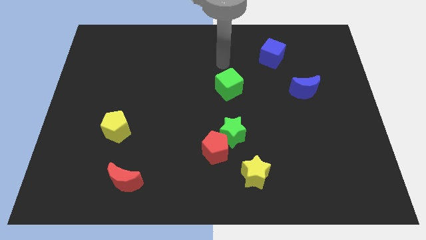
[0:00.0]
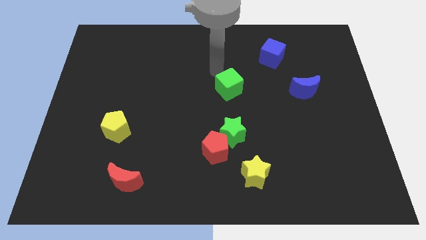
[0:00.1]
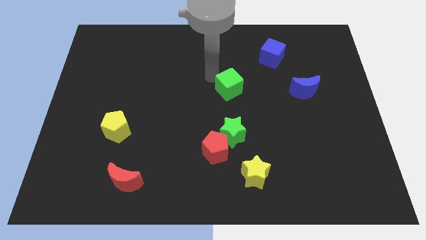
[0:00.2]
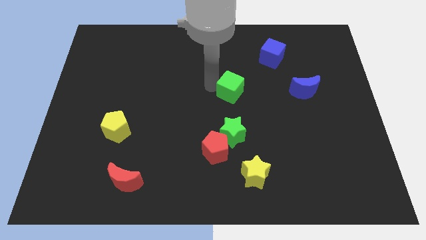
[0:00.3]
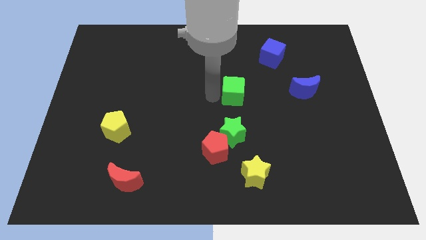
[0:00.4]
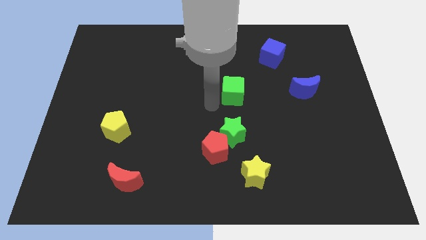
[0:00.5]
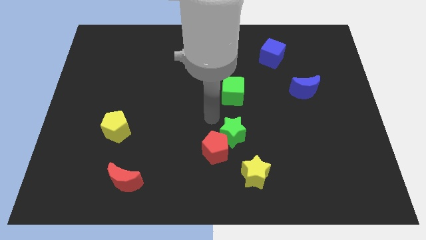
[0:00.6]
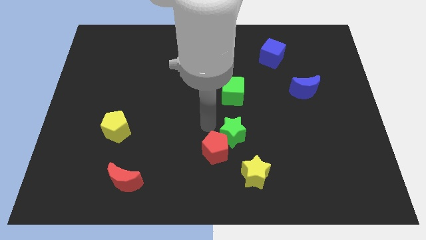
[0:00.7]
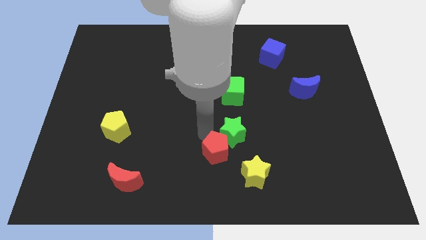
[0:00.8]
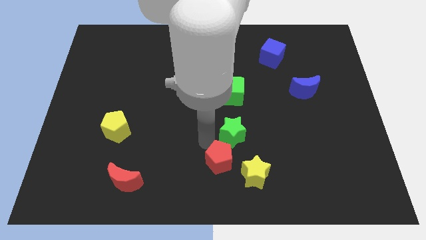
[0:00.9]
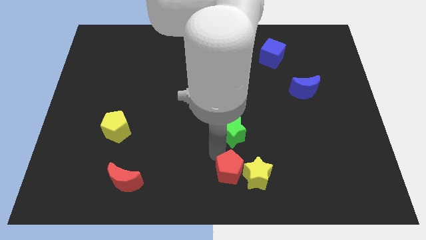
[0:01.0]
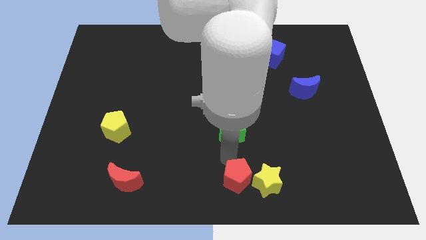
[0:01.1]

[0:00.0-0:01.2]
move the green star away from the red pentagon

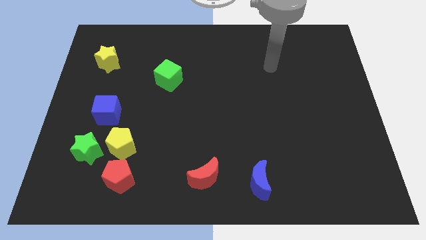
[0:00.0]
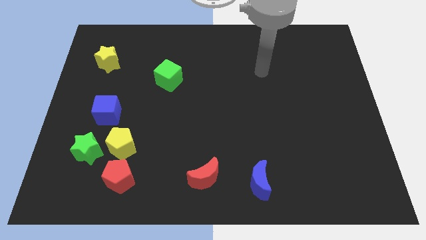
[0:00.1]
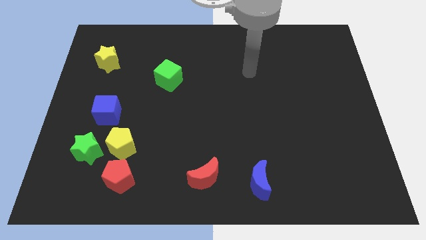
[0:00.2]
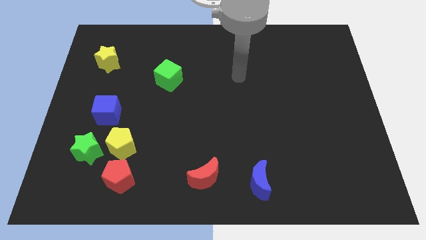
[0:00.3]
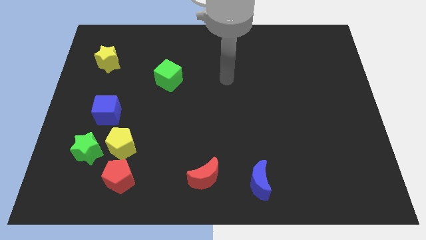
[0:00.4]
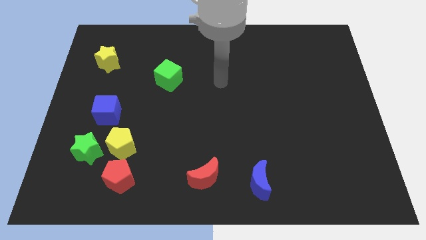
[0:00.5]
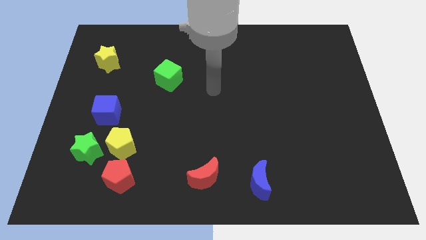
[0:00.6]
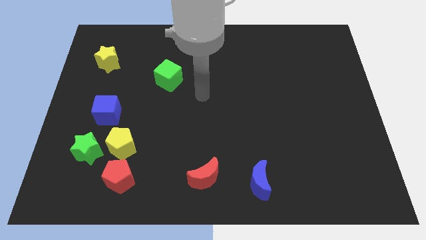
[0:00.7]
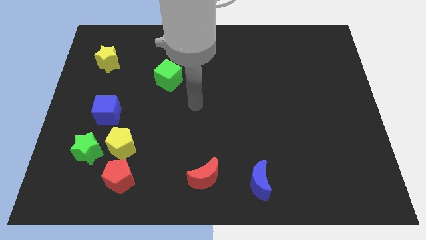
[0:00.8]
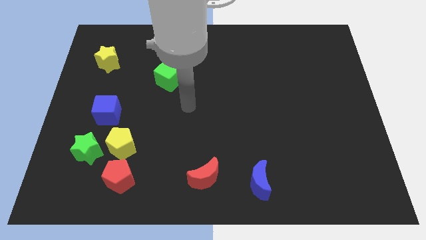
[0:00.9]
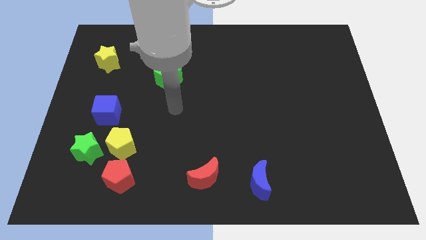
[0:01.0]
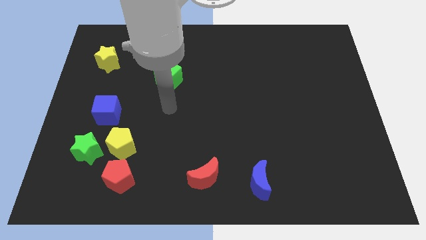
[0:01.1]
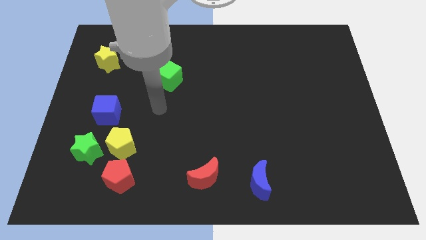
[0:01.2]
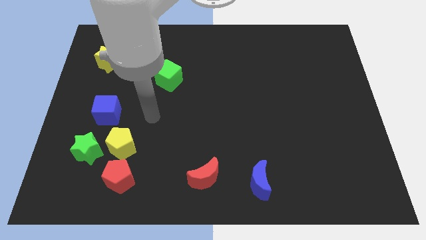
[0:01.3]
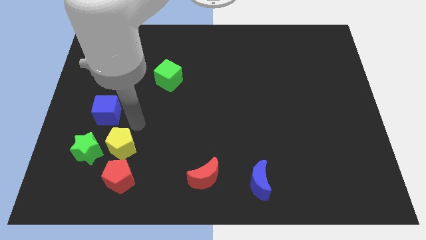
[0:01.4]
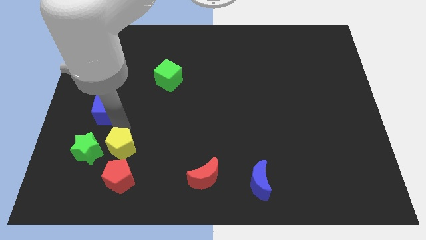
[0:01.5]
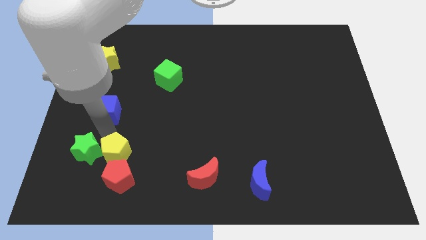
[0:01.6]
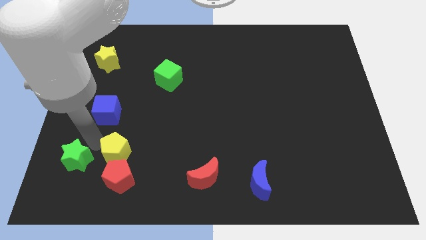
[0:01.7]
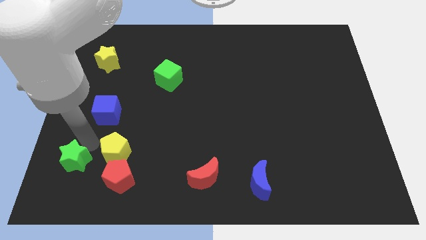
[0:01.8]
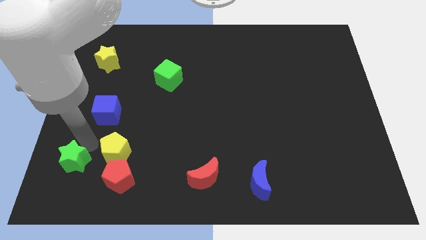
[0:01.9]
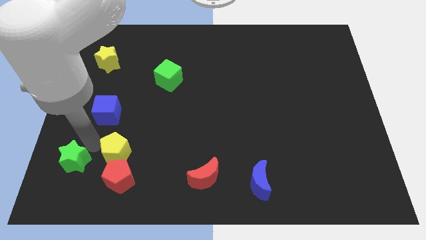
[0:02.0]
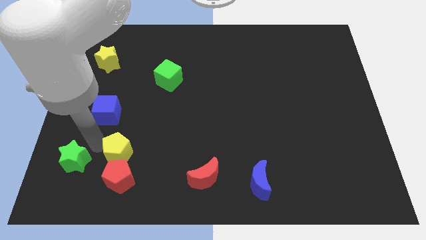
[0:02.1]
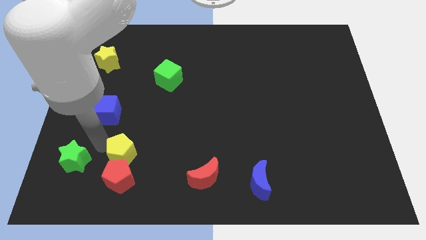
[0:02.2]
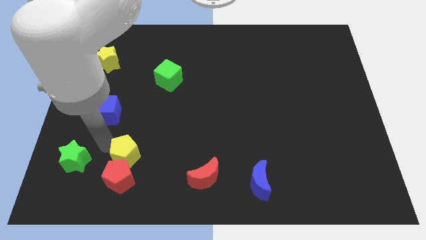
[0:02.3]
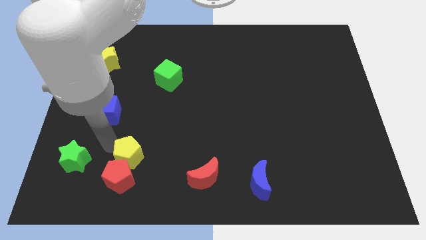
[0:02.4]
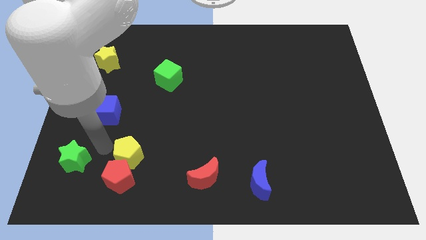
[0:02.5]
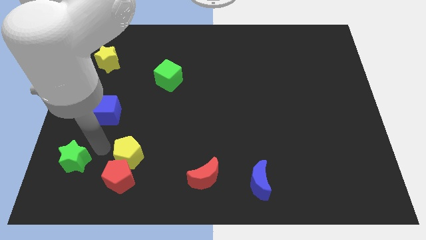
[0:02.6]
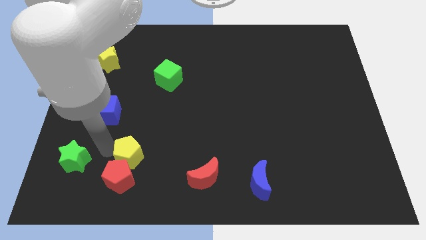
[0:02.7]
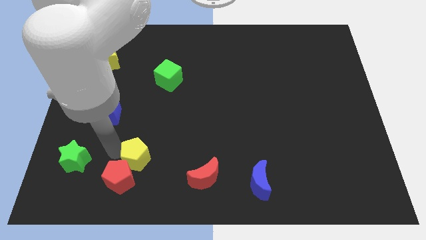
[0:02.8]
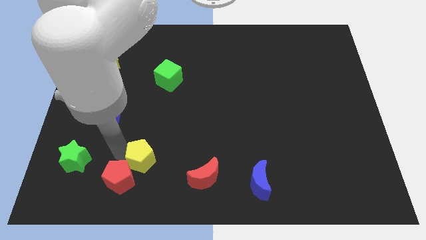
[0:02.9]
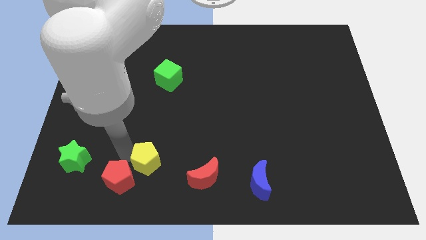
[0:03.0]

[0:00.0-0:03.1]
pull the yellow pentagon apart from the green star, red pentagon, and blue cube

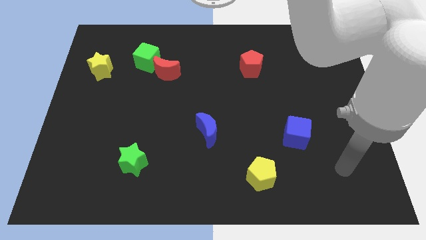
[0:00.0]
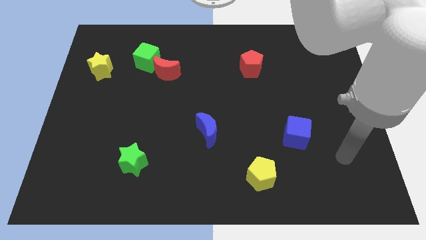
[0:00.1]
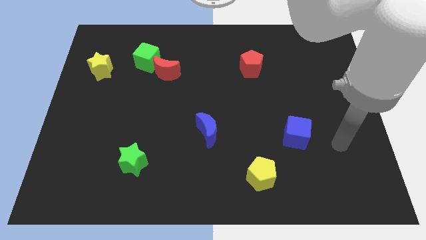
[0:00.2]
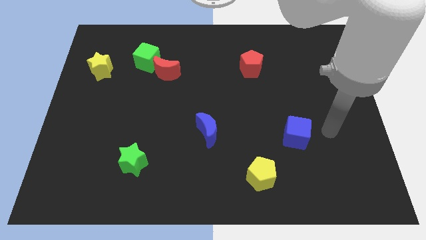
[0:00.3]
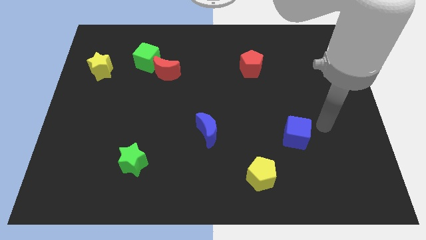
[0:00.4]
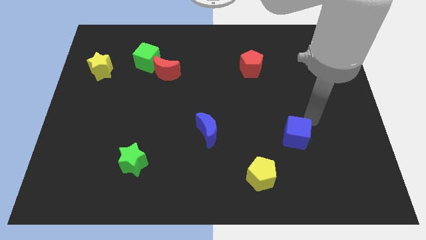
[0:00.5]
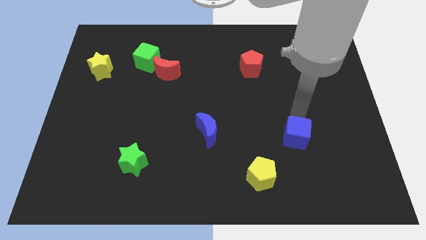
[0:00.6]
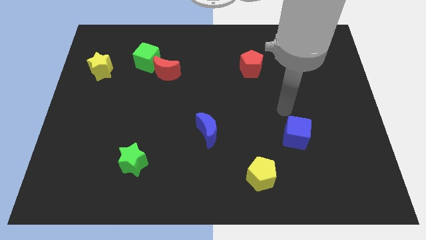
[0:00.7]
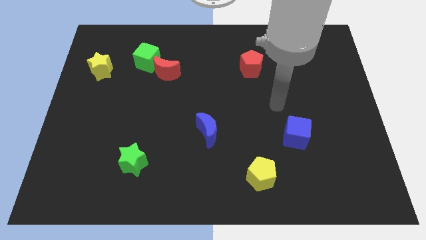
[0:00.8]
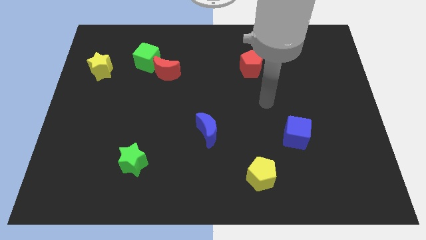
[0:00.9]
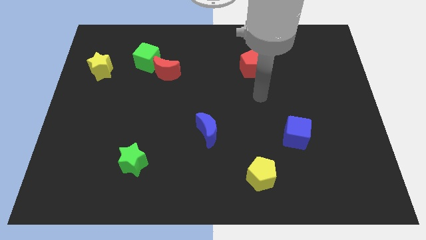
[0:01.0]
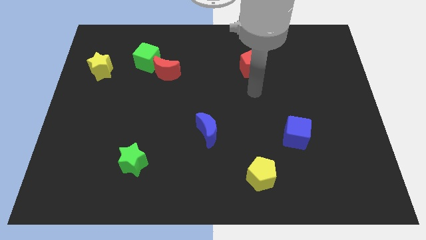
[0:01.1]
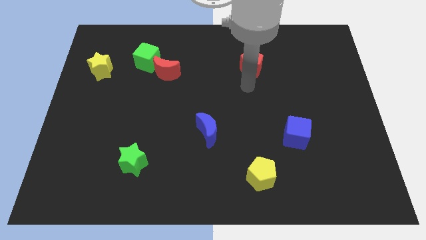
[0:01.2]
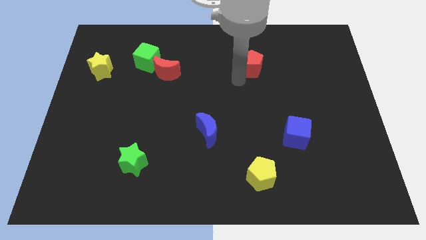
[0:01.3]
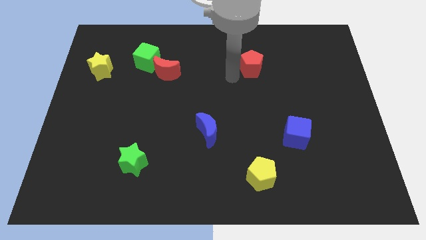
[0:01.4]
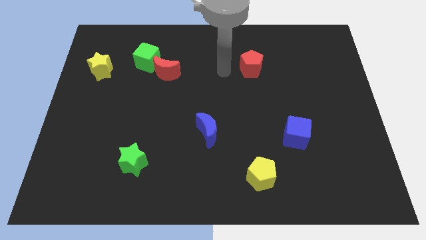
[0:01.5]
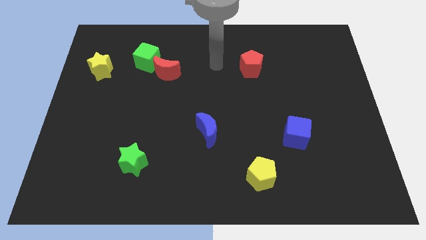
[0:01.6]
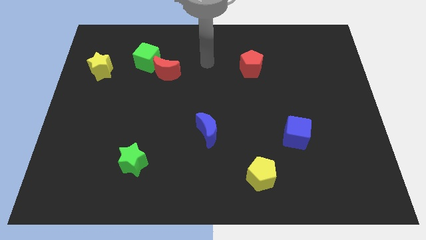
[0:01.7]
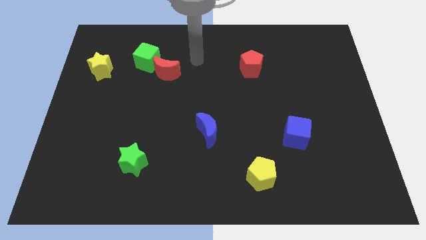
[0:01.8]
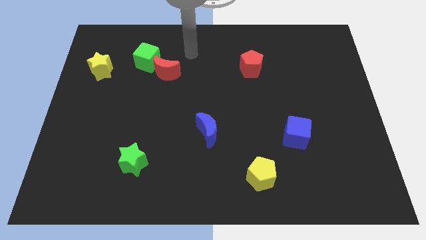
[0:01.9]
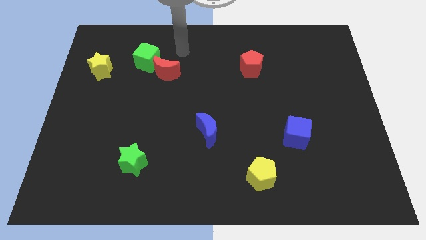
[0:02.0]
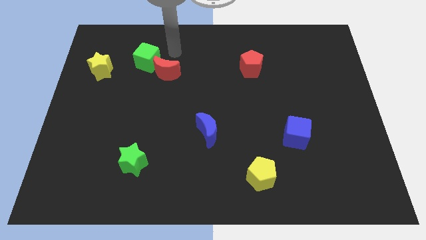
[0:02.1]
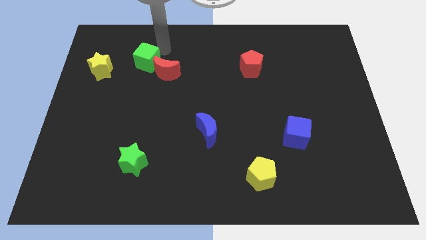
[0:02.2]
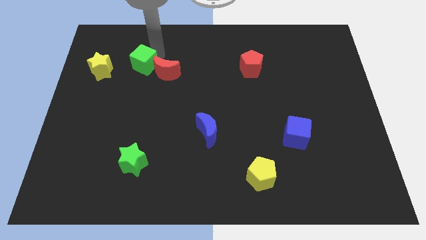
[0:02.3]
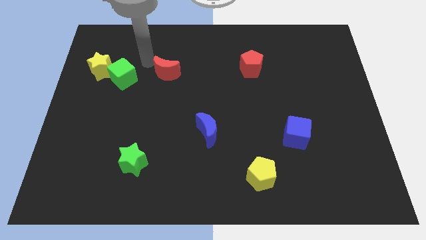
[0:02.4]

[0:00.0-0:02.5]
move the red moon away from the green cube

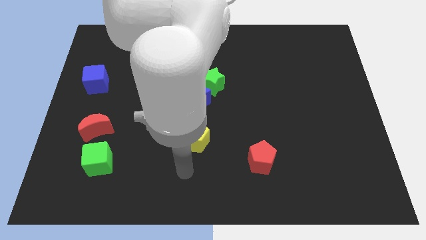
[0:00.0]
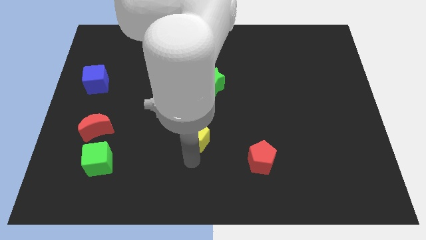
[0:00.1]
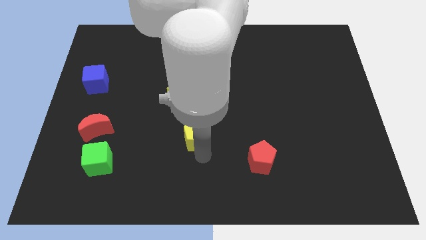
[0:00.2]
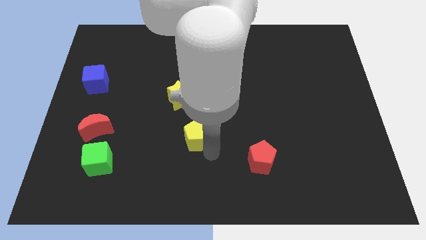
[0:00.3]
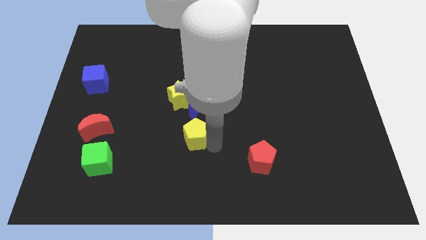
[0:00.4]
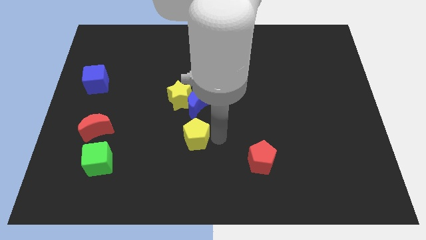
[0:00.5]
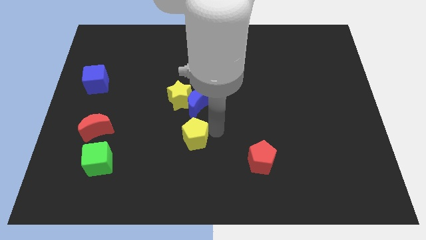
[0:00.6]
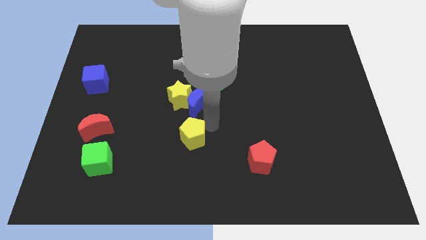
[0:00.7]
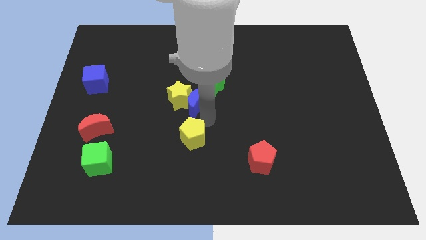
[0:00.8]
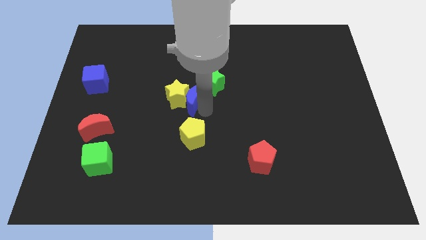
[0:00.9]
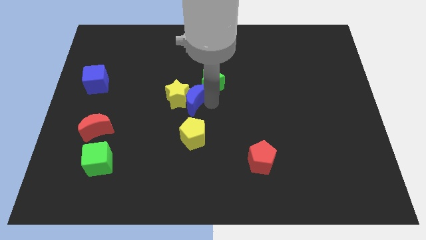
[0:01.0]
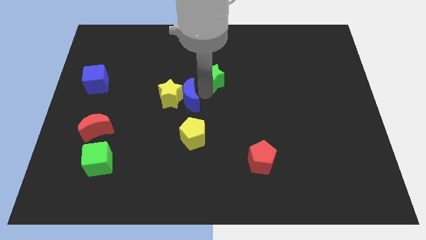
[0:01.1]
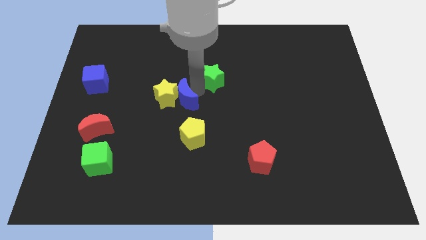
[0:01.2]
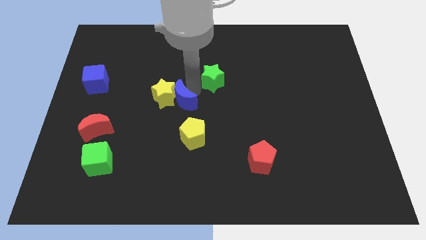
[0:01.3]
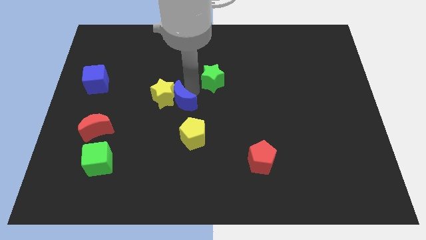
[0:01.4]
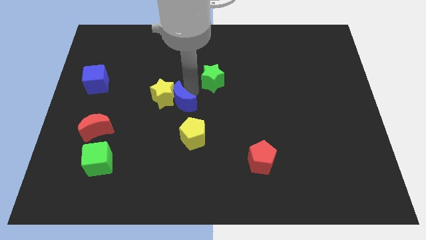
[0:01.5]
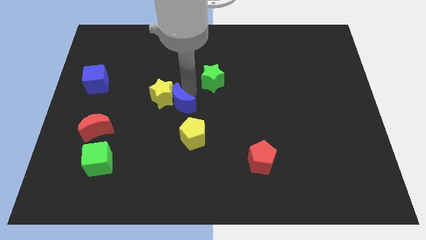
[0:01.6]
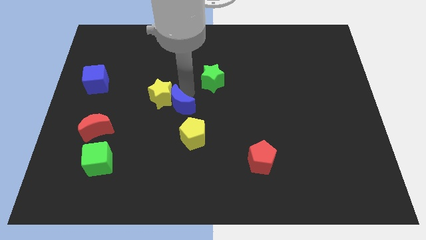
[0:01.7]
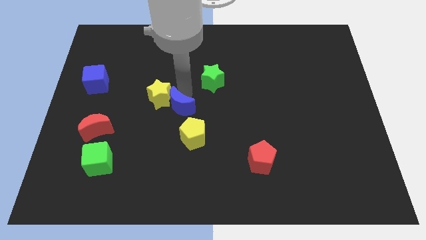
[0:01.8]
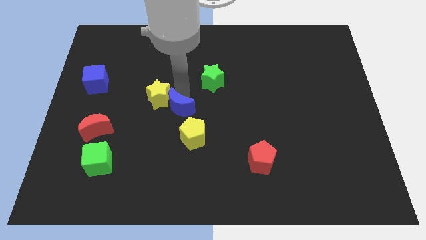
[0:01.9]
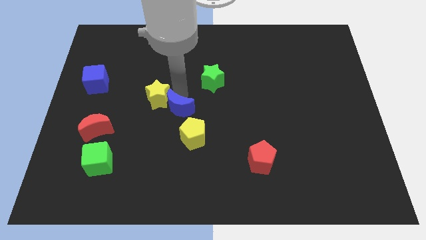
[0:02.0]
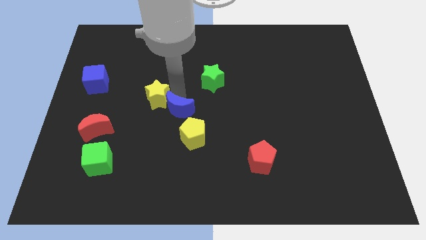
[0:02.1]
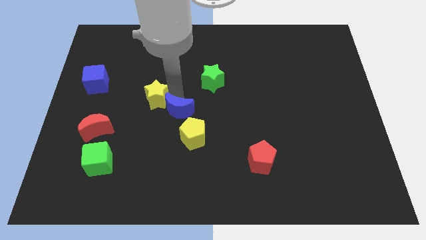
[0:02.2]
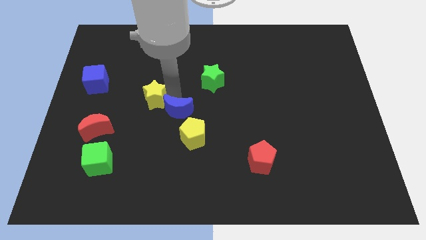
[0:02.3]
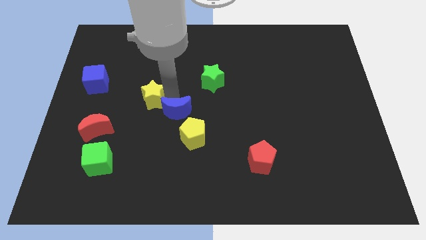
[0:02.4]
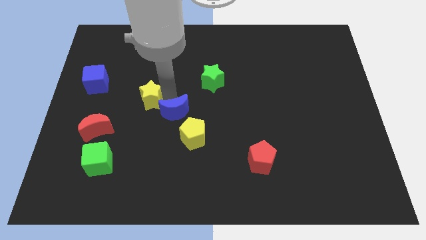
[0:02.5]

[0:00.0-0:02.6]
separate the yellow star from the blue moon and green star
